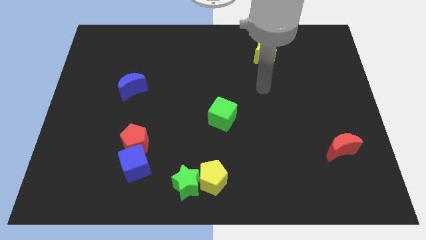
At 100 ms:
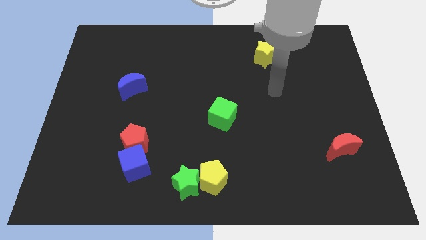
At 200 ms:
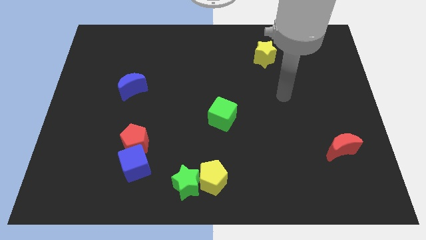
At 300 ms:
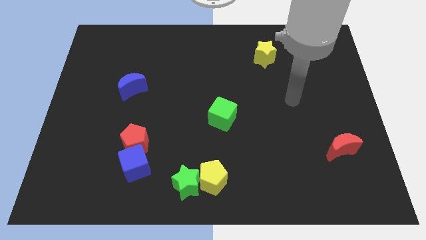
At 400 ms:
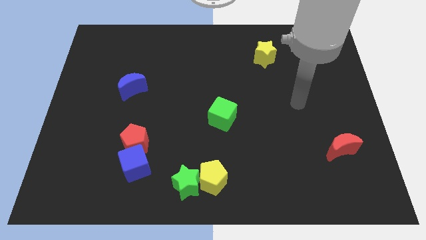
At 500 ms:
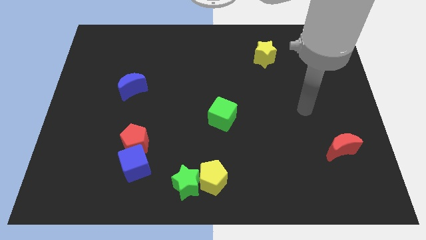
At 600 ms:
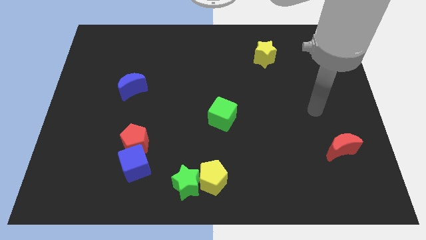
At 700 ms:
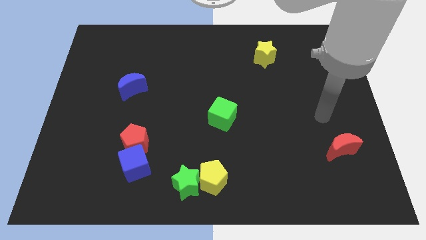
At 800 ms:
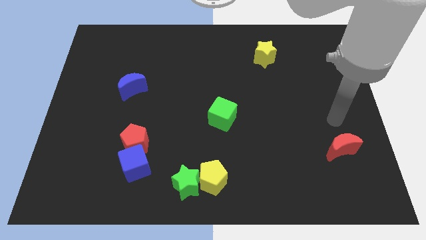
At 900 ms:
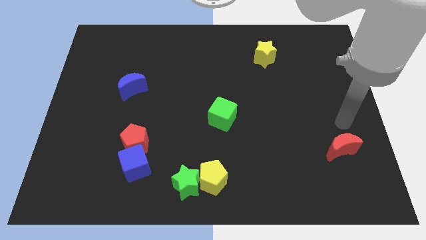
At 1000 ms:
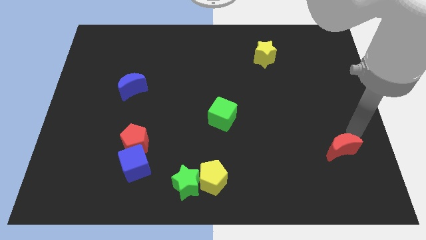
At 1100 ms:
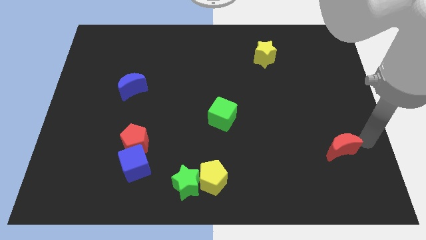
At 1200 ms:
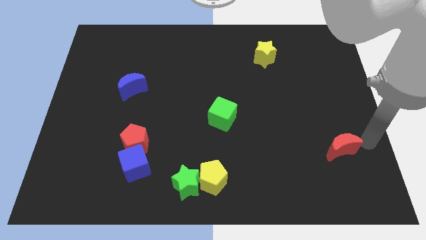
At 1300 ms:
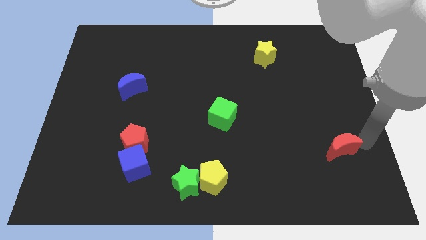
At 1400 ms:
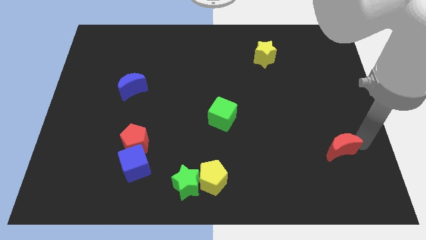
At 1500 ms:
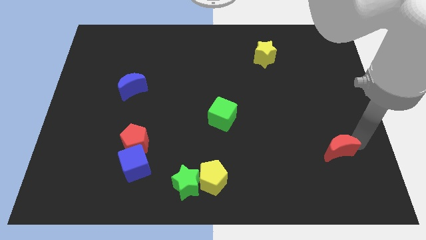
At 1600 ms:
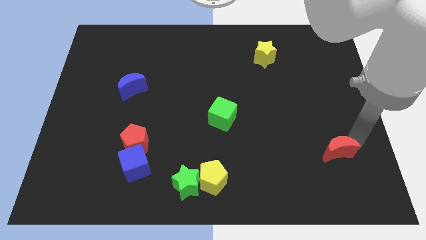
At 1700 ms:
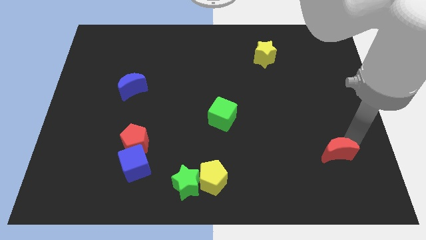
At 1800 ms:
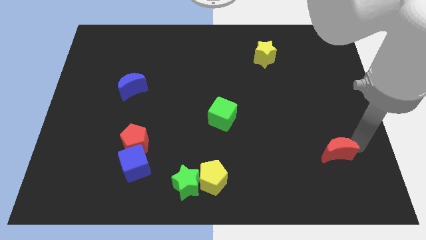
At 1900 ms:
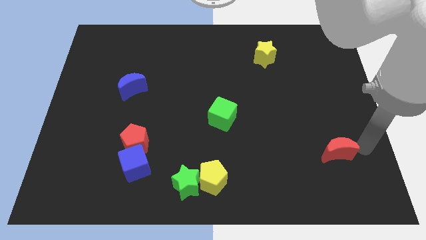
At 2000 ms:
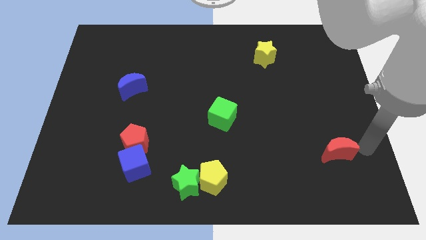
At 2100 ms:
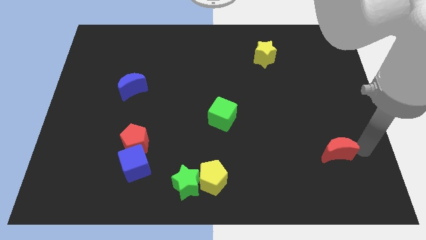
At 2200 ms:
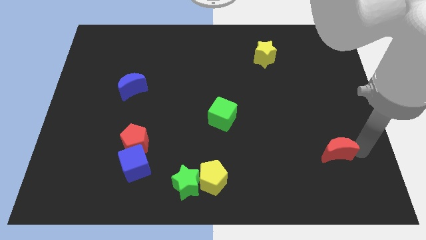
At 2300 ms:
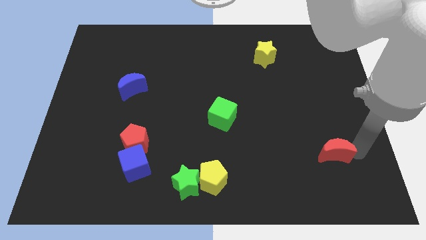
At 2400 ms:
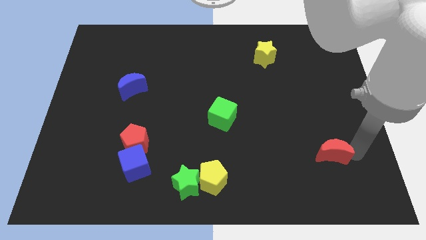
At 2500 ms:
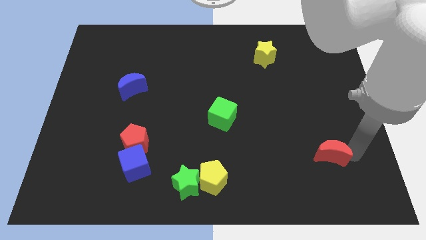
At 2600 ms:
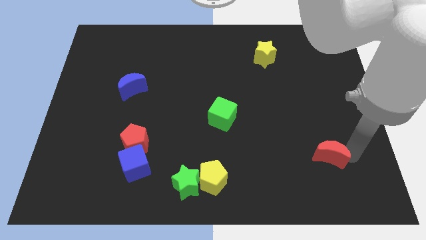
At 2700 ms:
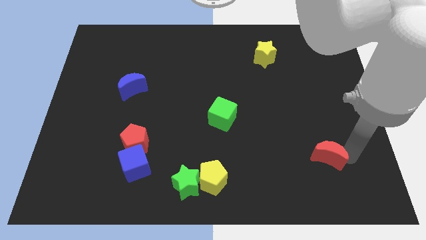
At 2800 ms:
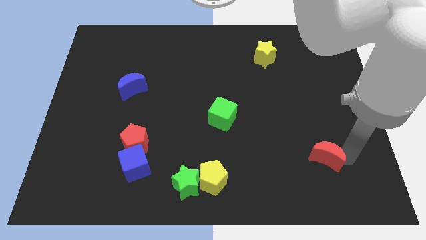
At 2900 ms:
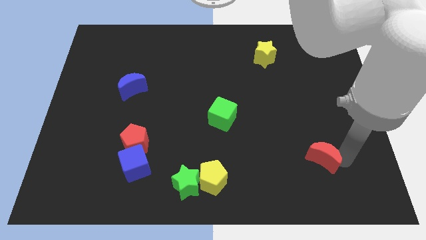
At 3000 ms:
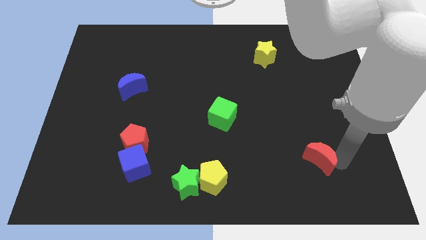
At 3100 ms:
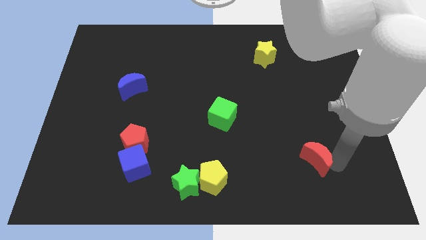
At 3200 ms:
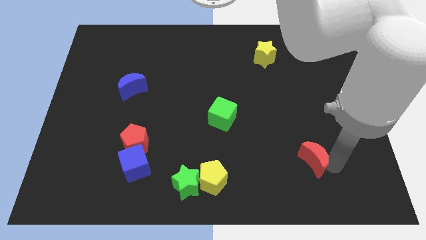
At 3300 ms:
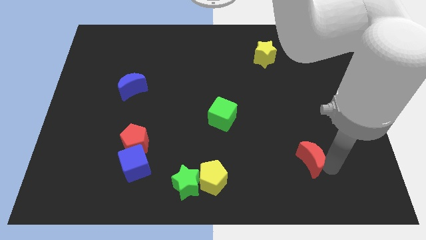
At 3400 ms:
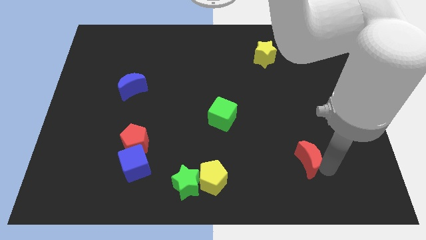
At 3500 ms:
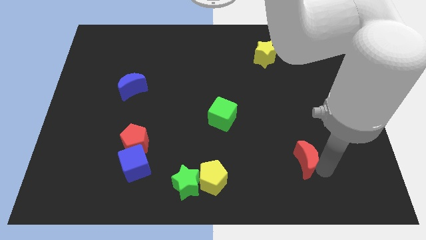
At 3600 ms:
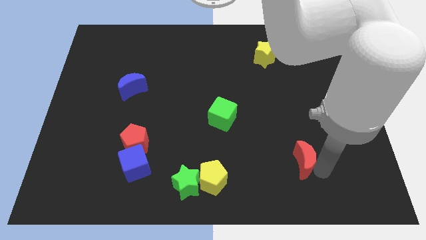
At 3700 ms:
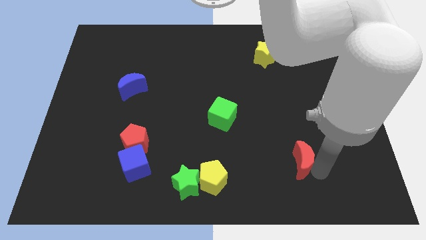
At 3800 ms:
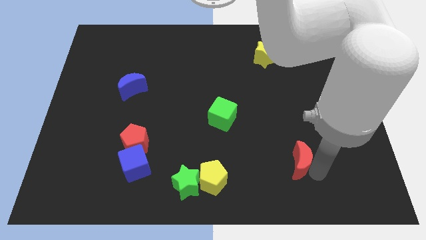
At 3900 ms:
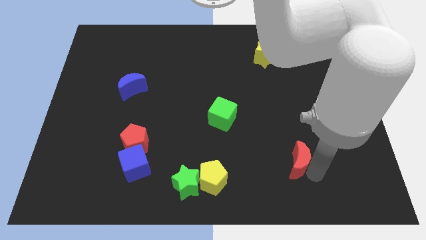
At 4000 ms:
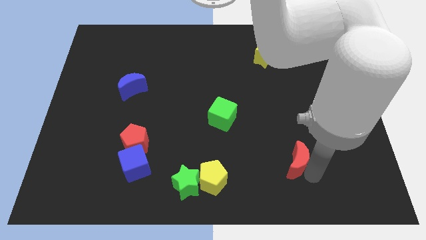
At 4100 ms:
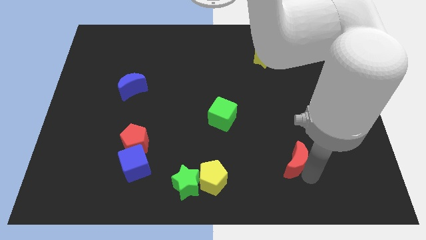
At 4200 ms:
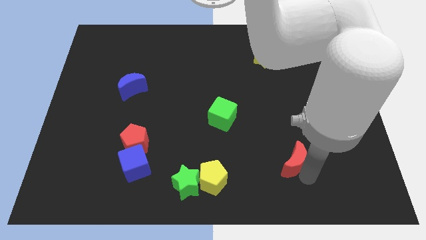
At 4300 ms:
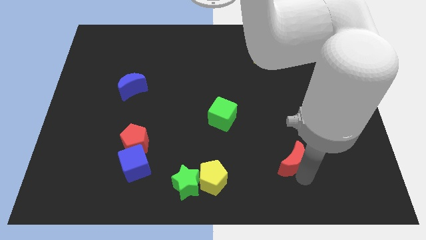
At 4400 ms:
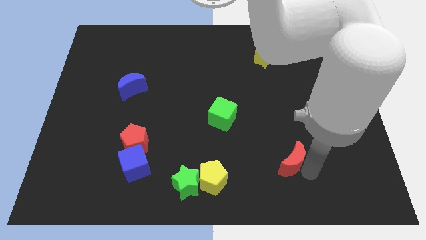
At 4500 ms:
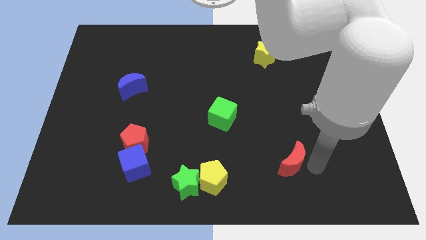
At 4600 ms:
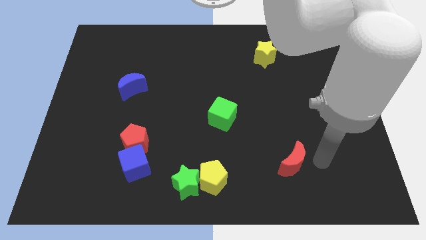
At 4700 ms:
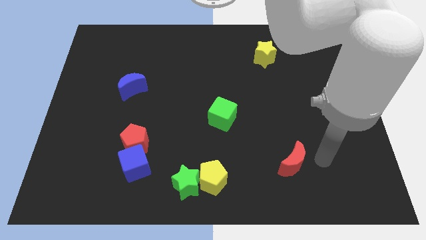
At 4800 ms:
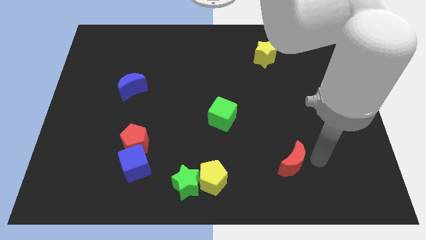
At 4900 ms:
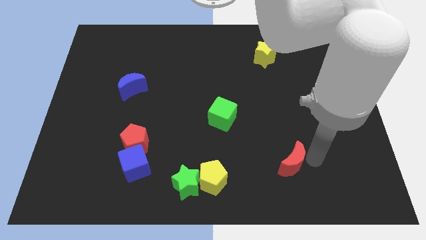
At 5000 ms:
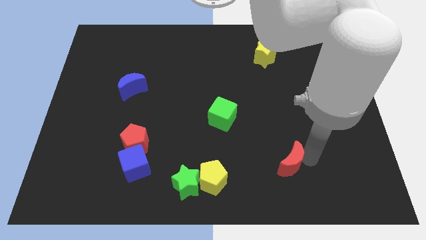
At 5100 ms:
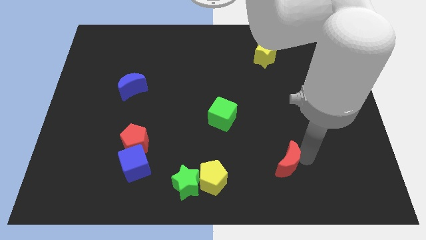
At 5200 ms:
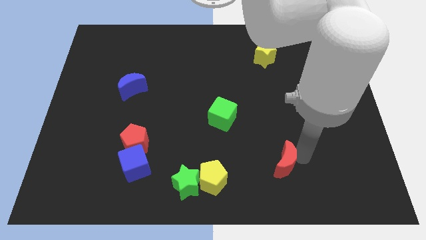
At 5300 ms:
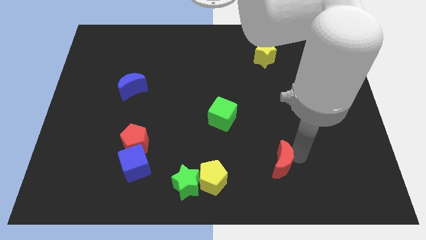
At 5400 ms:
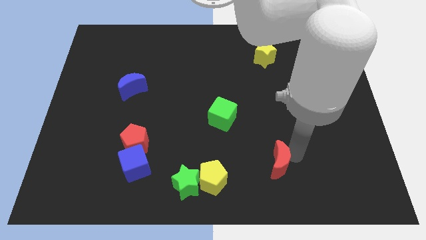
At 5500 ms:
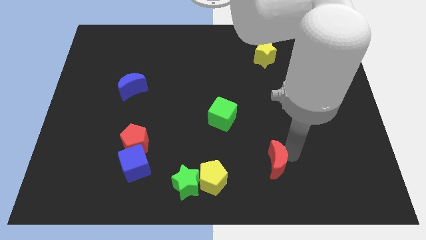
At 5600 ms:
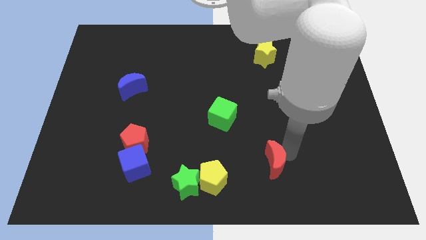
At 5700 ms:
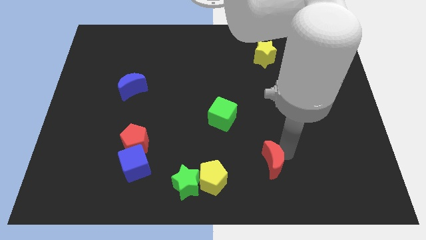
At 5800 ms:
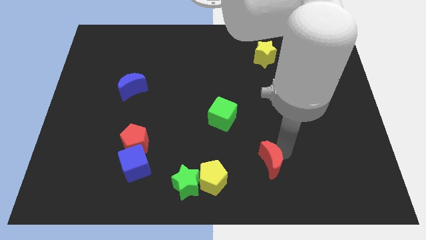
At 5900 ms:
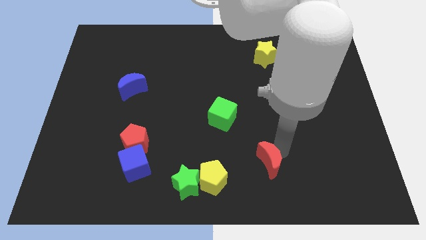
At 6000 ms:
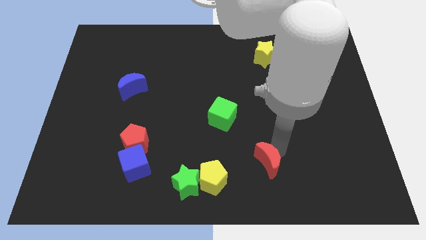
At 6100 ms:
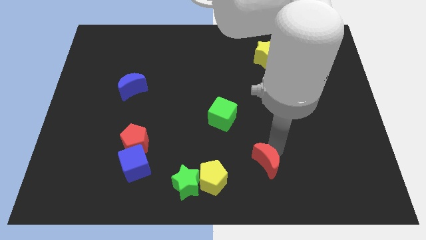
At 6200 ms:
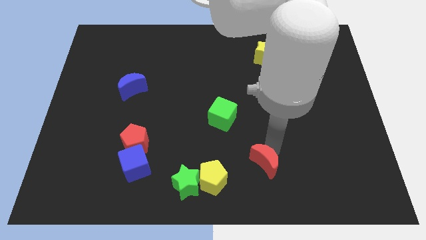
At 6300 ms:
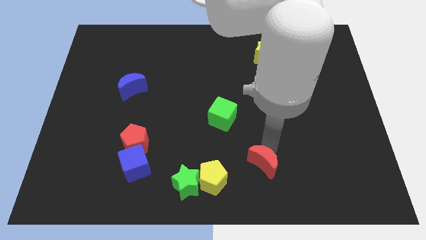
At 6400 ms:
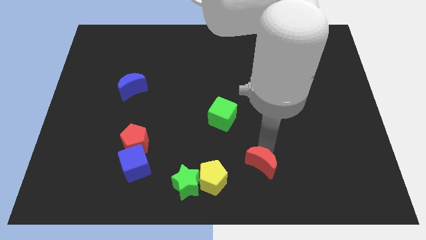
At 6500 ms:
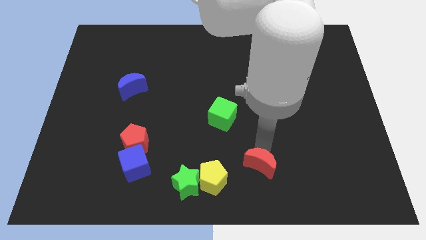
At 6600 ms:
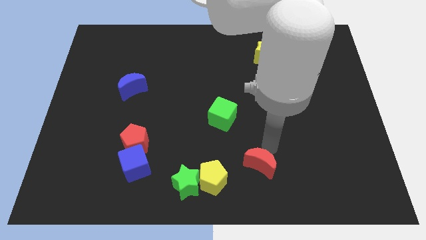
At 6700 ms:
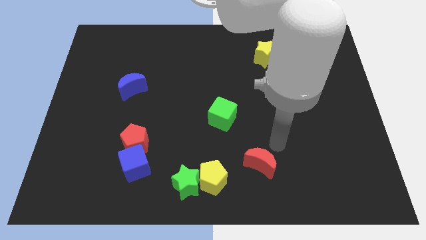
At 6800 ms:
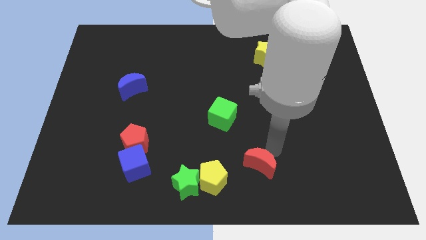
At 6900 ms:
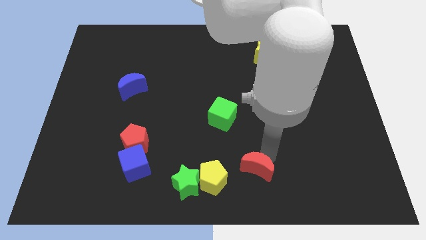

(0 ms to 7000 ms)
move the red moon to the bottom

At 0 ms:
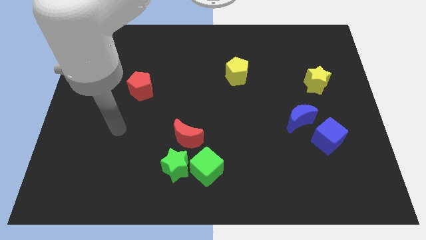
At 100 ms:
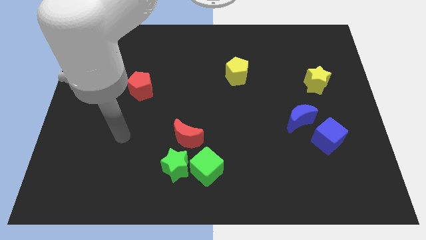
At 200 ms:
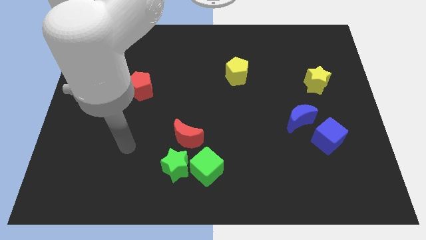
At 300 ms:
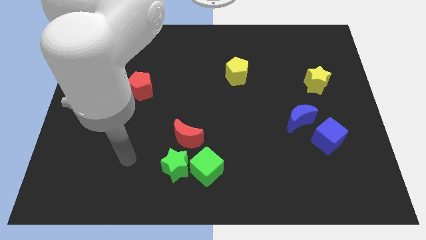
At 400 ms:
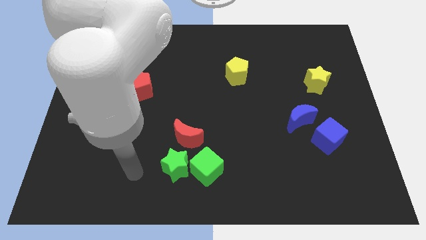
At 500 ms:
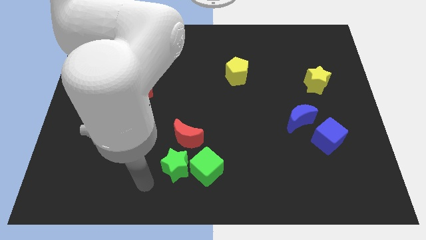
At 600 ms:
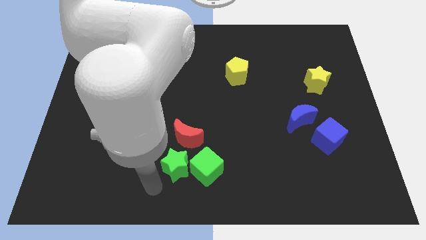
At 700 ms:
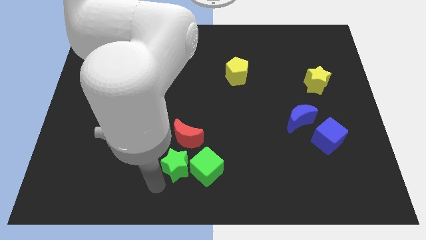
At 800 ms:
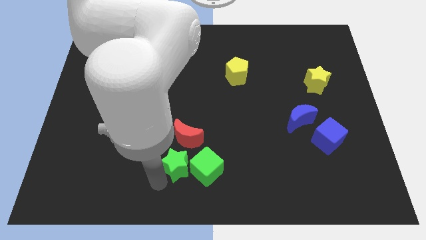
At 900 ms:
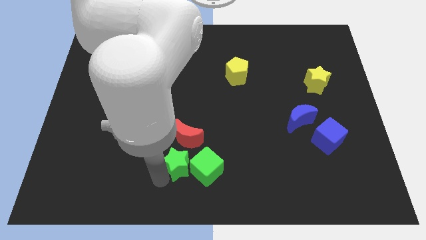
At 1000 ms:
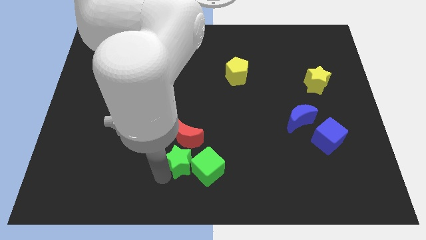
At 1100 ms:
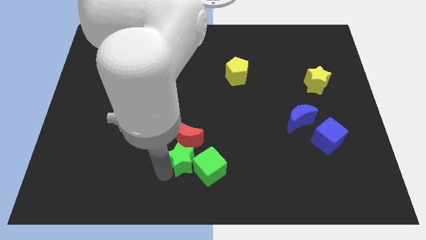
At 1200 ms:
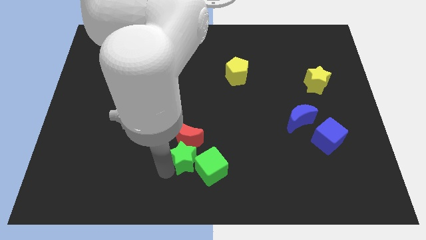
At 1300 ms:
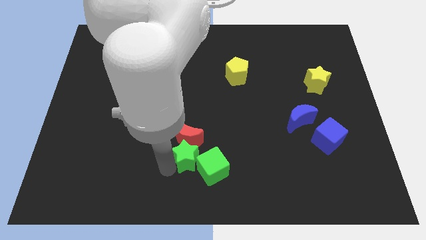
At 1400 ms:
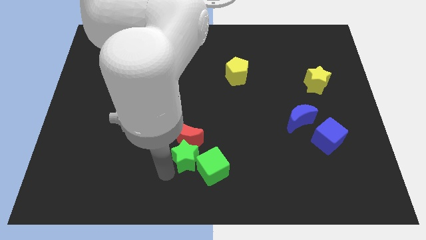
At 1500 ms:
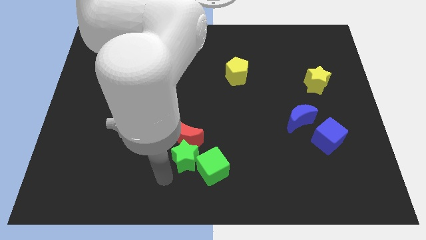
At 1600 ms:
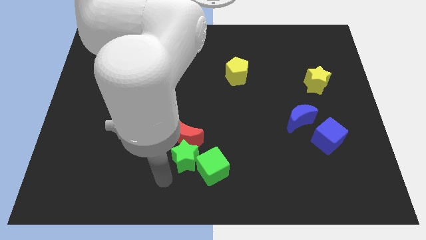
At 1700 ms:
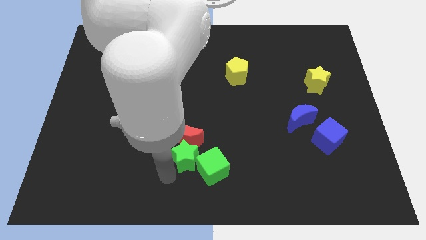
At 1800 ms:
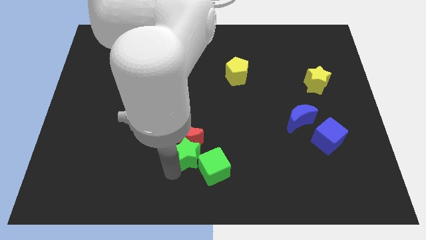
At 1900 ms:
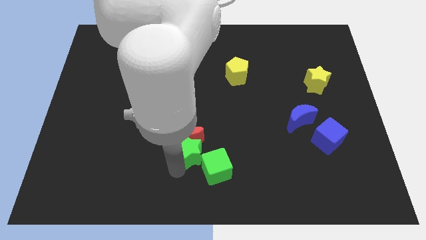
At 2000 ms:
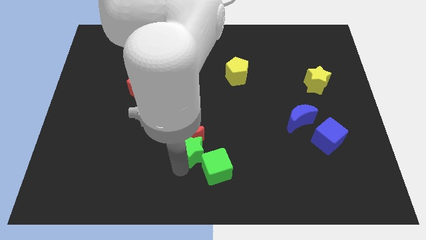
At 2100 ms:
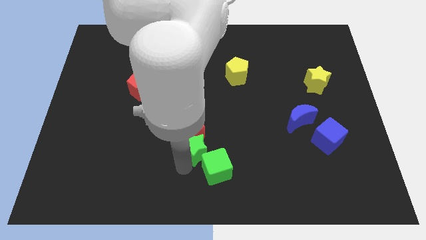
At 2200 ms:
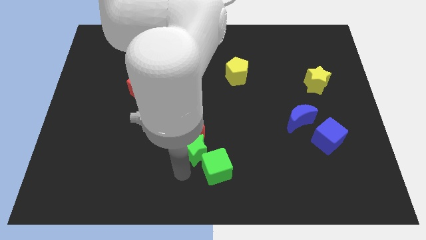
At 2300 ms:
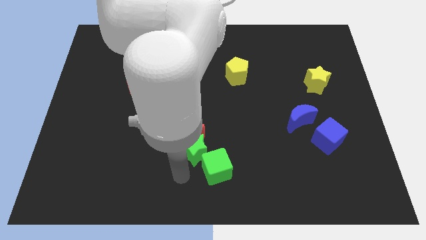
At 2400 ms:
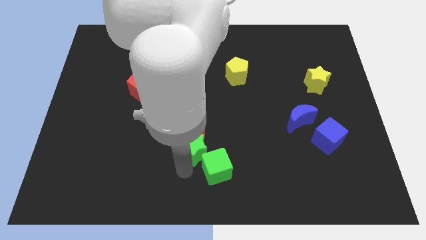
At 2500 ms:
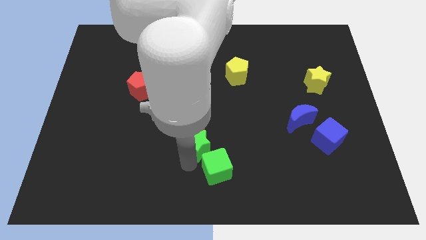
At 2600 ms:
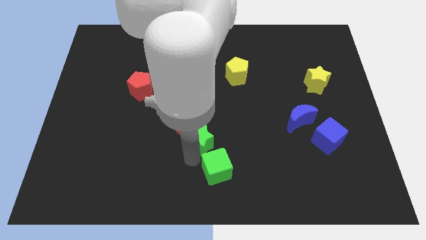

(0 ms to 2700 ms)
put the green star to the center
